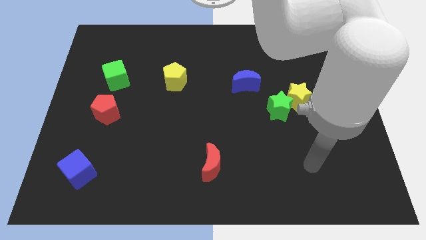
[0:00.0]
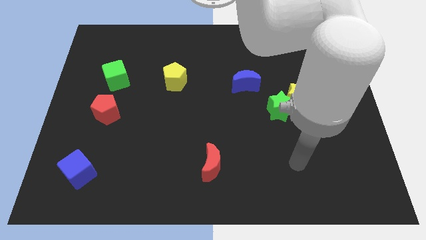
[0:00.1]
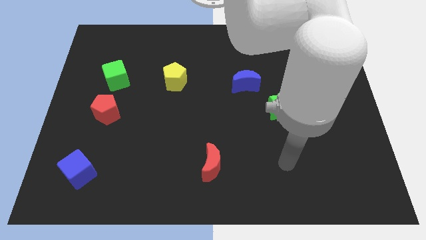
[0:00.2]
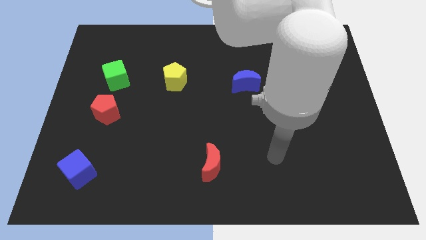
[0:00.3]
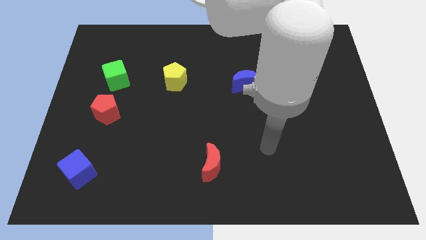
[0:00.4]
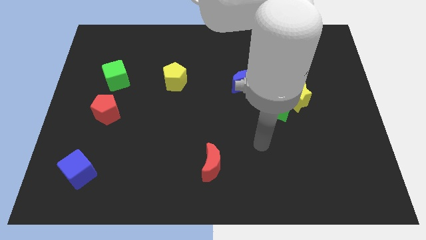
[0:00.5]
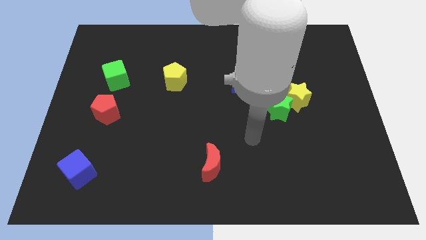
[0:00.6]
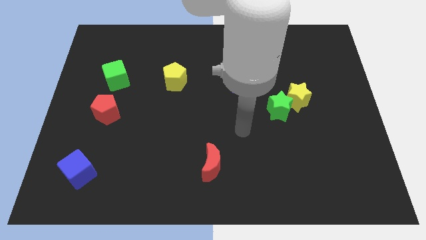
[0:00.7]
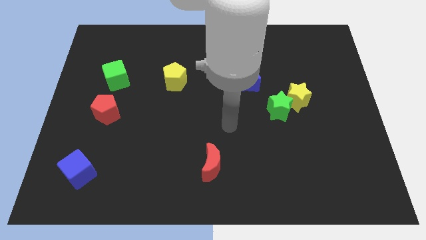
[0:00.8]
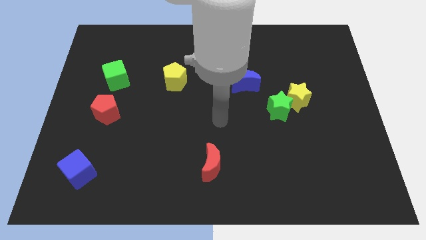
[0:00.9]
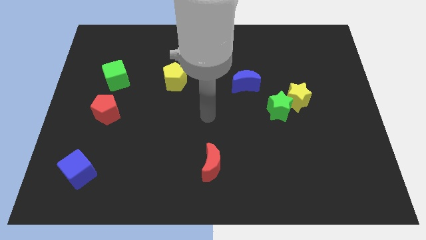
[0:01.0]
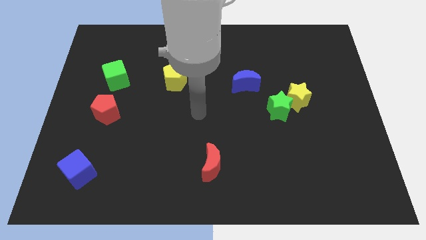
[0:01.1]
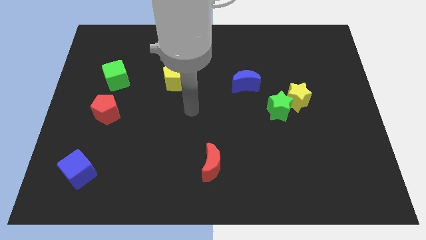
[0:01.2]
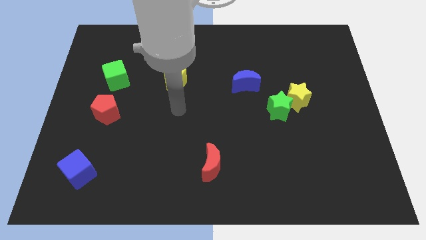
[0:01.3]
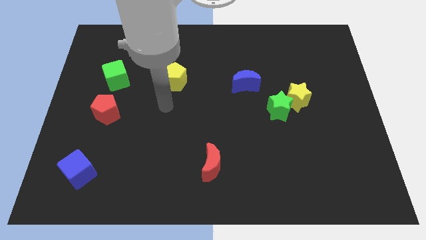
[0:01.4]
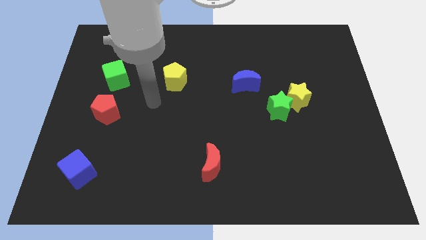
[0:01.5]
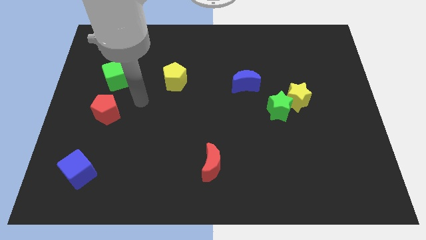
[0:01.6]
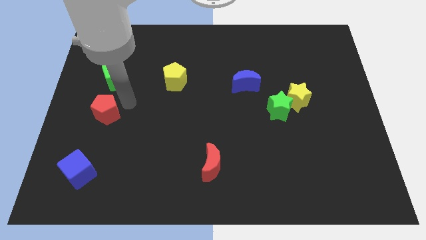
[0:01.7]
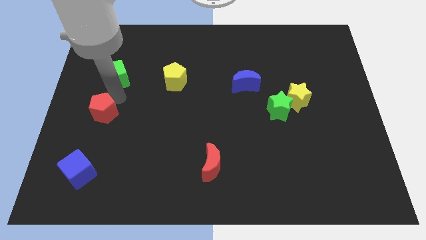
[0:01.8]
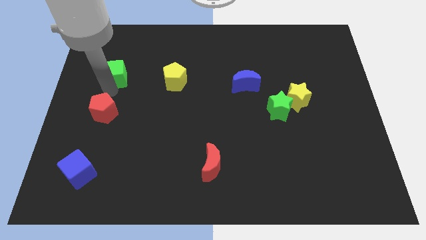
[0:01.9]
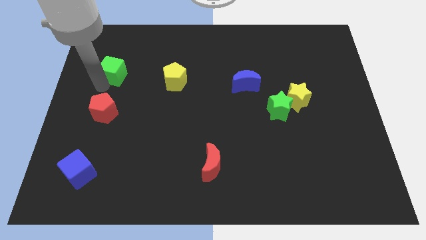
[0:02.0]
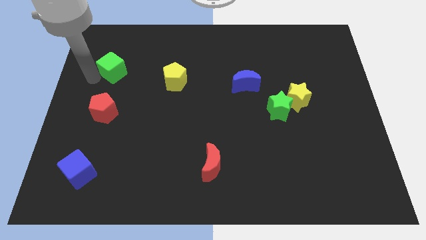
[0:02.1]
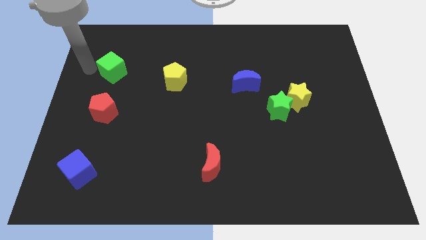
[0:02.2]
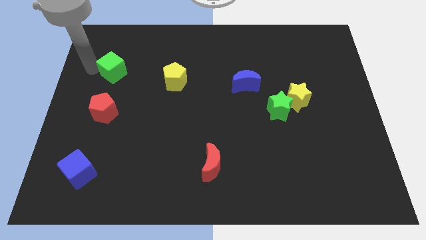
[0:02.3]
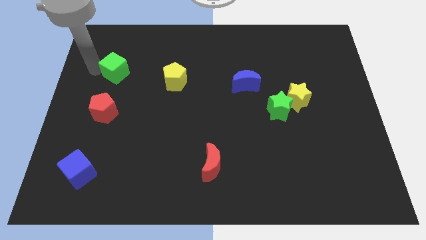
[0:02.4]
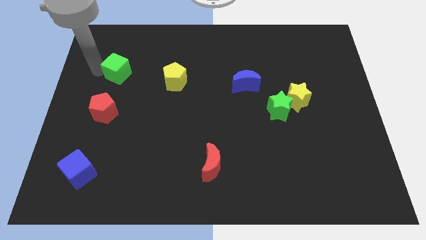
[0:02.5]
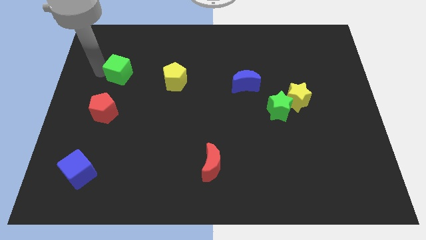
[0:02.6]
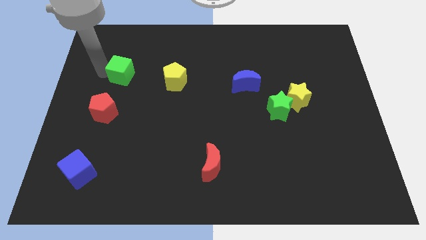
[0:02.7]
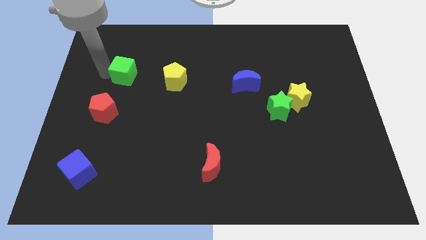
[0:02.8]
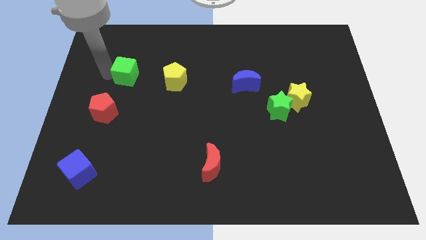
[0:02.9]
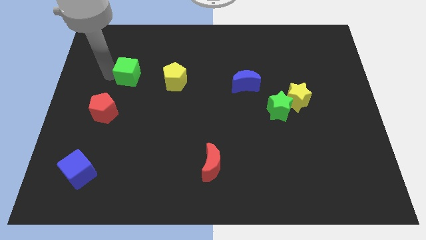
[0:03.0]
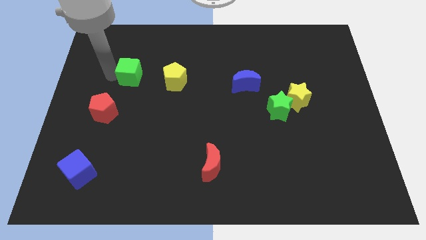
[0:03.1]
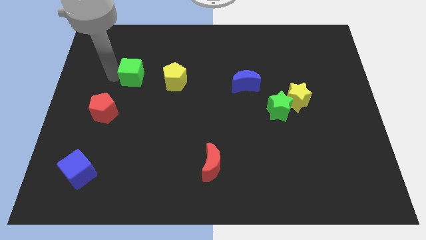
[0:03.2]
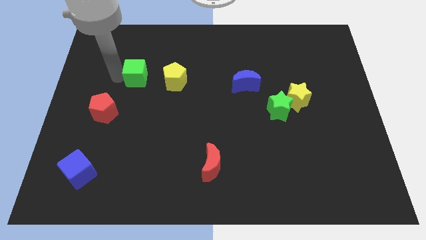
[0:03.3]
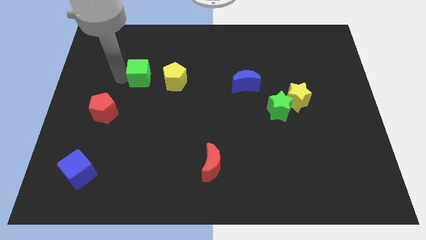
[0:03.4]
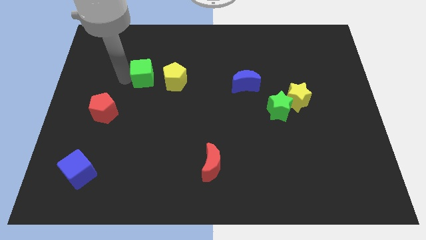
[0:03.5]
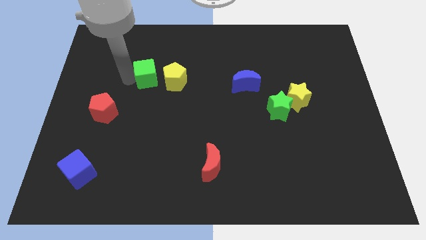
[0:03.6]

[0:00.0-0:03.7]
move the green cube to the right somewhat

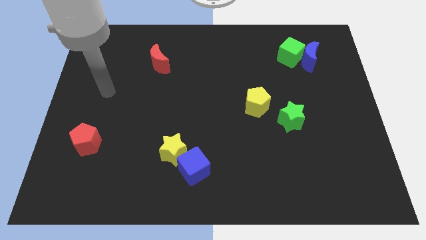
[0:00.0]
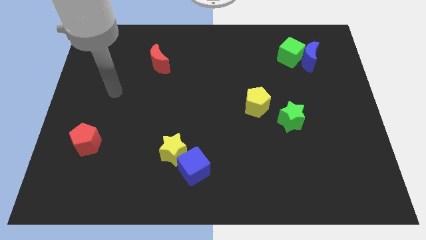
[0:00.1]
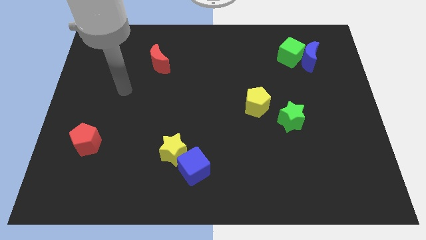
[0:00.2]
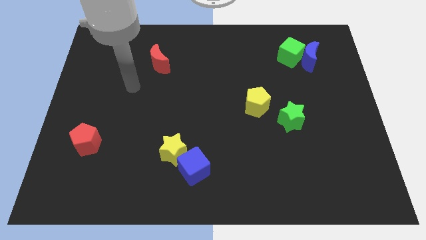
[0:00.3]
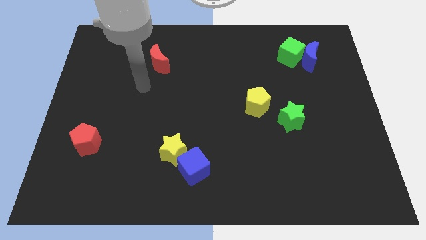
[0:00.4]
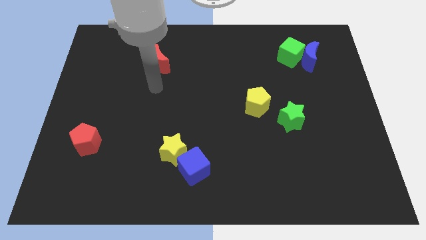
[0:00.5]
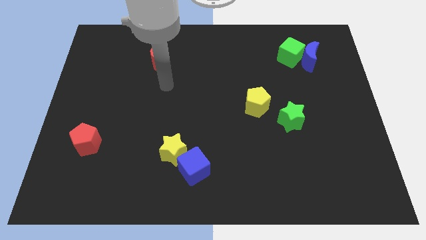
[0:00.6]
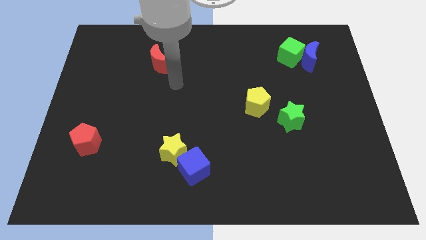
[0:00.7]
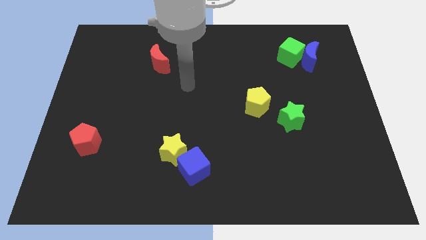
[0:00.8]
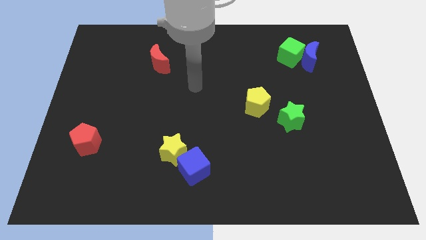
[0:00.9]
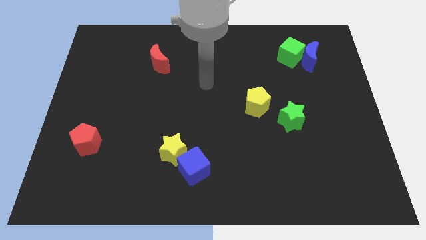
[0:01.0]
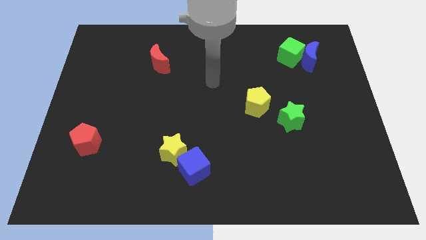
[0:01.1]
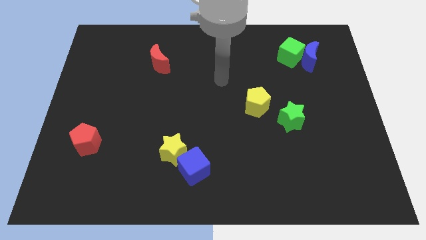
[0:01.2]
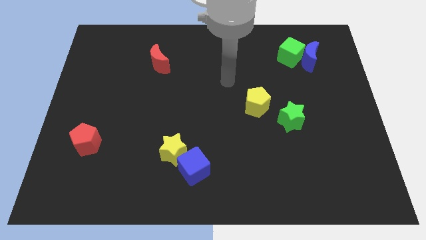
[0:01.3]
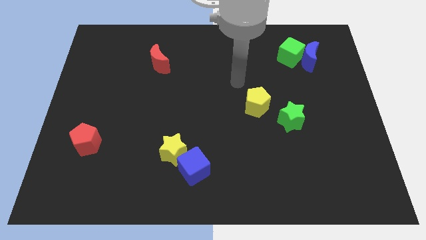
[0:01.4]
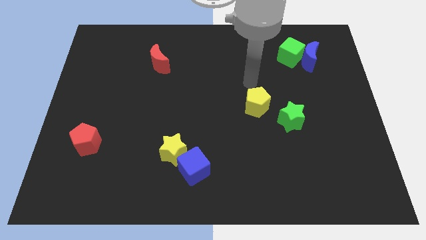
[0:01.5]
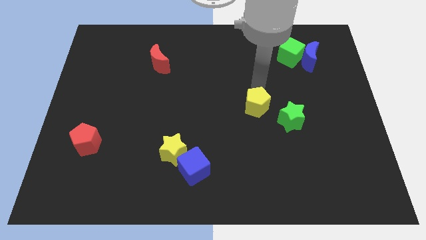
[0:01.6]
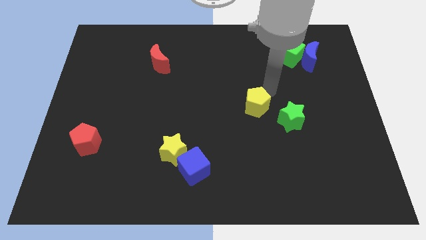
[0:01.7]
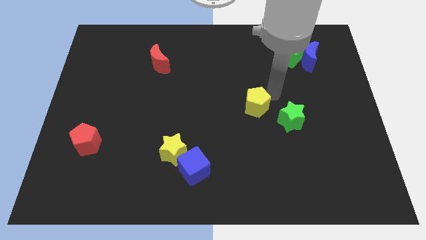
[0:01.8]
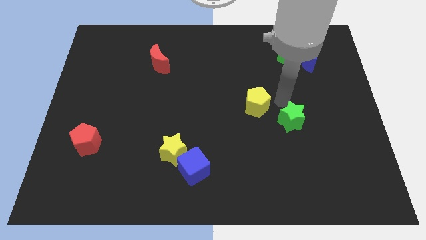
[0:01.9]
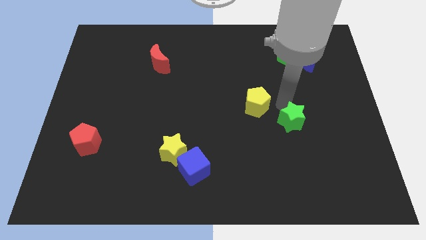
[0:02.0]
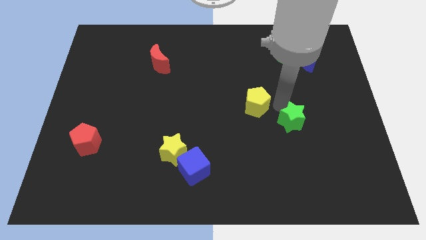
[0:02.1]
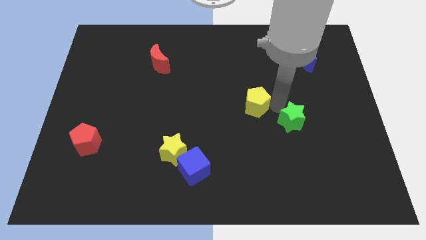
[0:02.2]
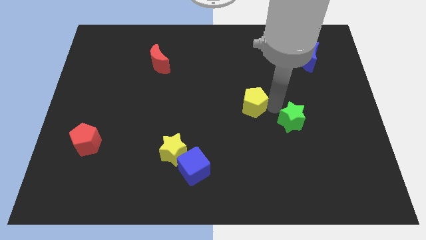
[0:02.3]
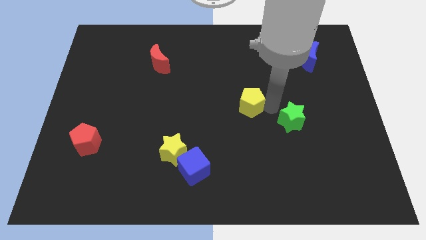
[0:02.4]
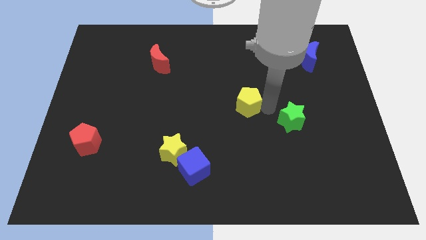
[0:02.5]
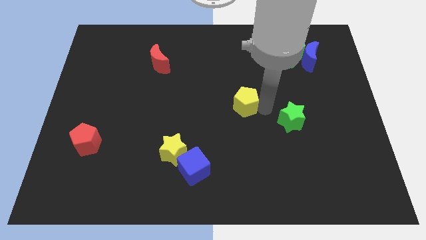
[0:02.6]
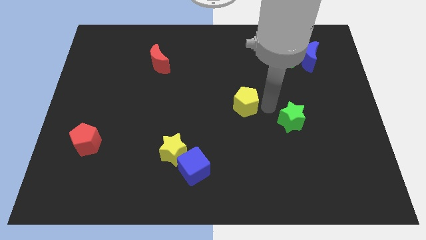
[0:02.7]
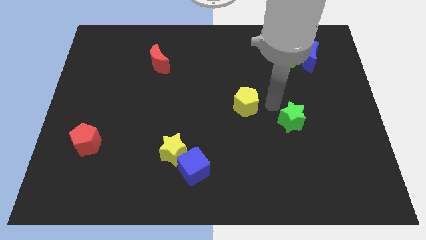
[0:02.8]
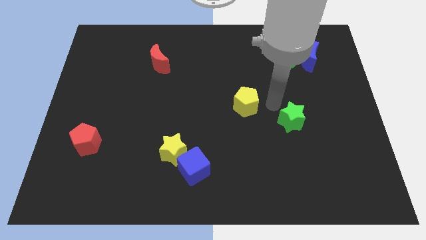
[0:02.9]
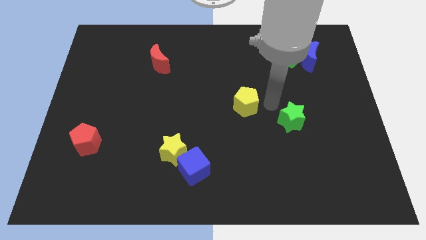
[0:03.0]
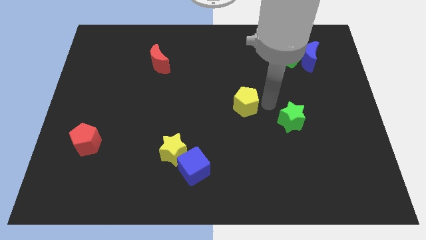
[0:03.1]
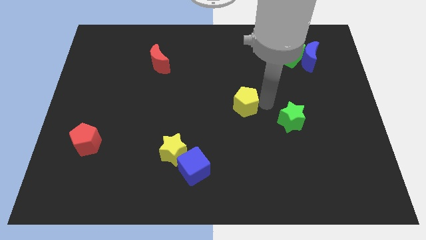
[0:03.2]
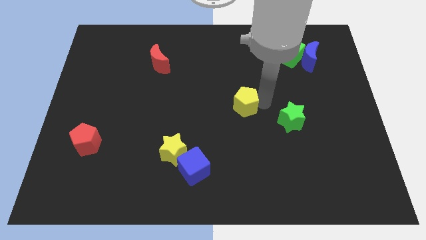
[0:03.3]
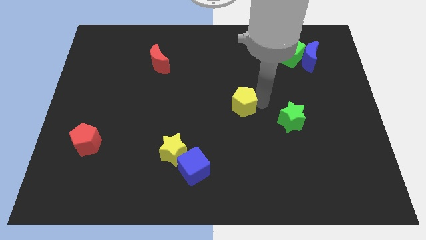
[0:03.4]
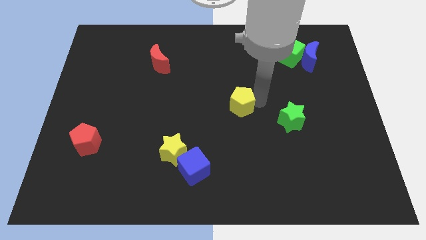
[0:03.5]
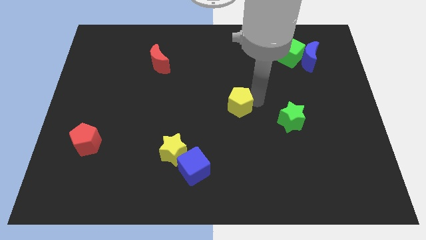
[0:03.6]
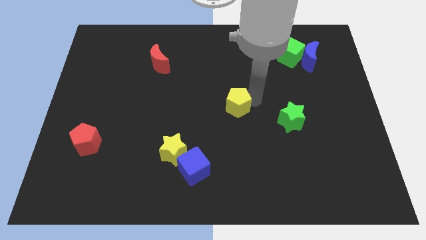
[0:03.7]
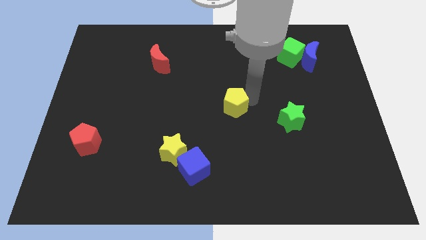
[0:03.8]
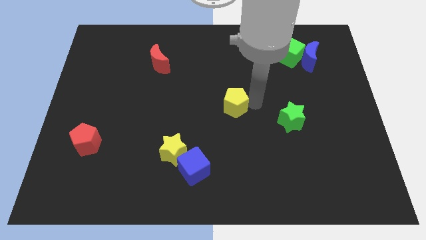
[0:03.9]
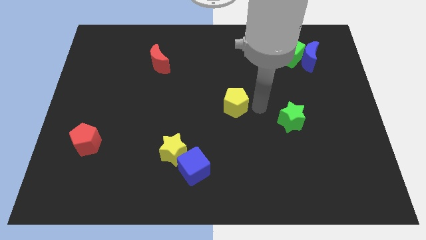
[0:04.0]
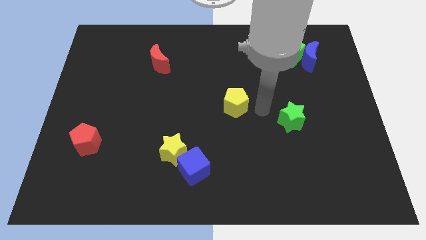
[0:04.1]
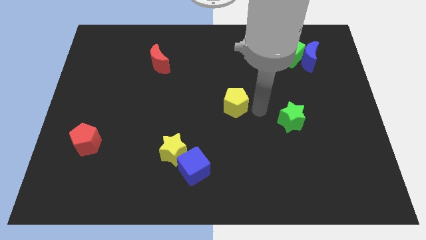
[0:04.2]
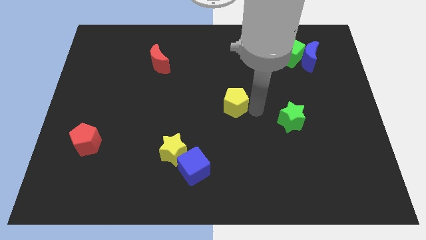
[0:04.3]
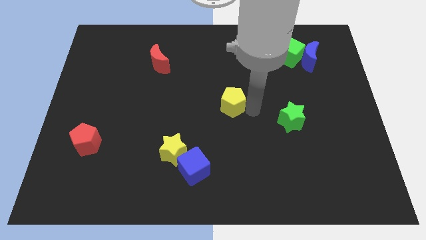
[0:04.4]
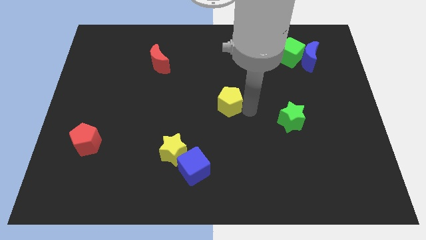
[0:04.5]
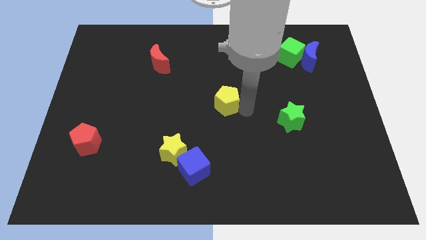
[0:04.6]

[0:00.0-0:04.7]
slightly push the yellow pentagon to the left
